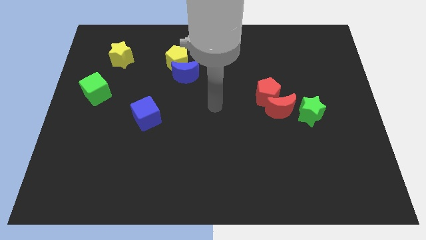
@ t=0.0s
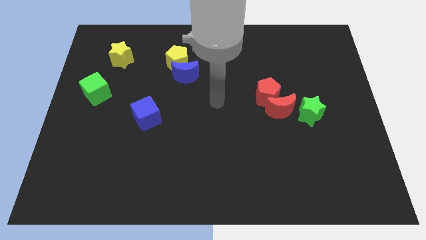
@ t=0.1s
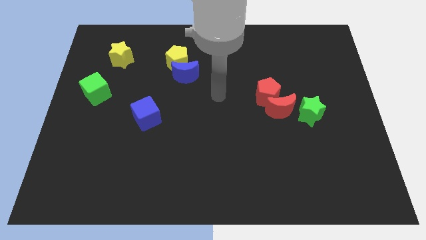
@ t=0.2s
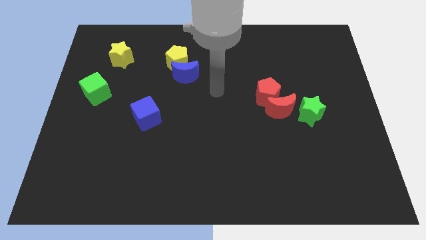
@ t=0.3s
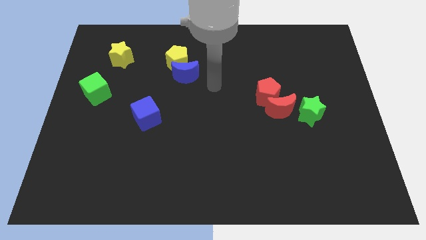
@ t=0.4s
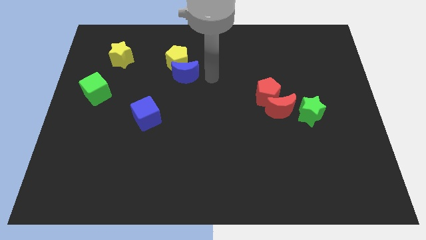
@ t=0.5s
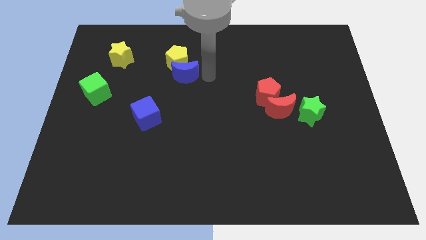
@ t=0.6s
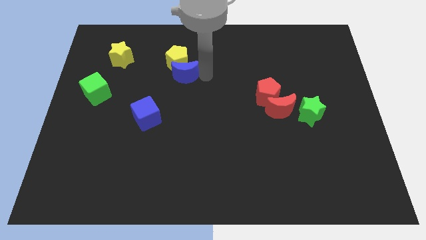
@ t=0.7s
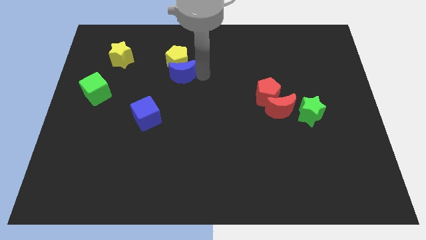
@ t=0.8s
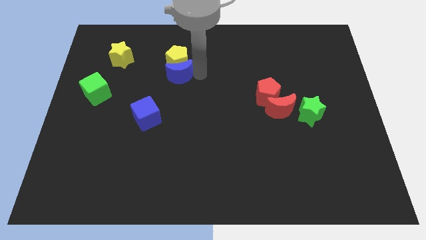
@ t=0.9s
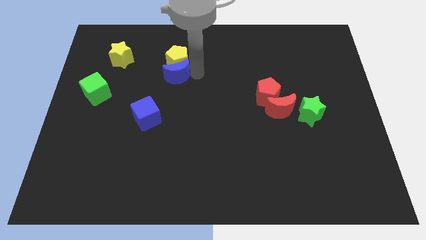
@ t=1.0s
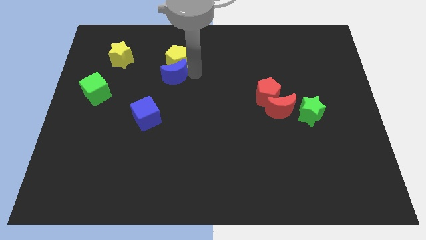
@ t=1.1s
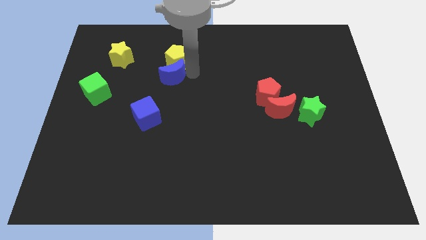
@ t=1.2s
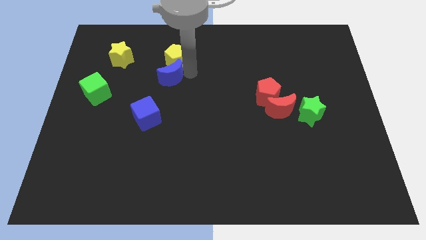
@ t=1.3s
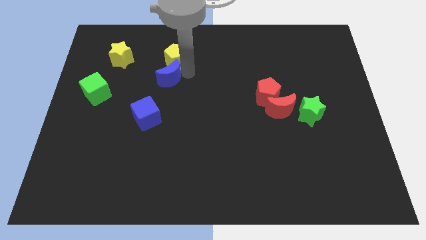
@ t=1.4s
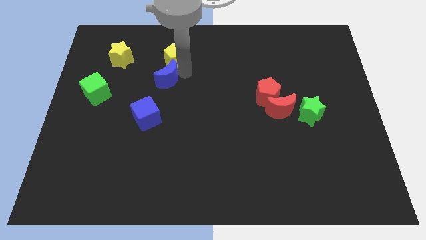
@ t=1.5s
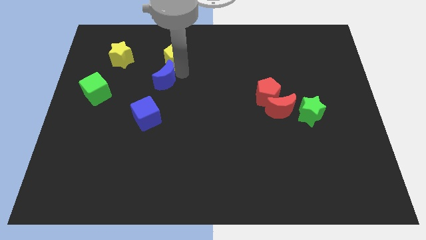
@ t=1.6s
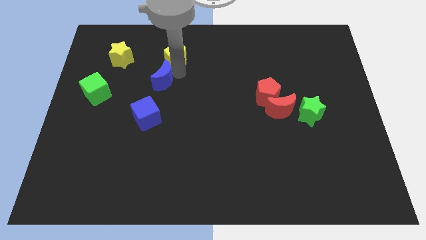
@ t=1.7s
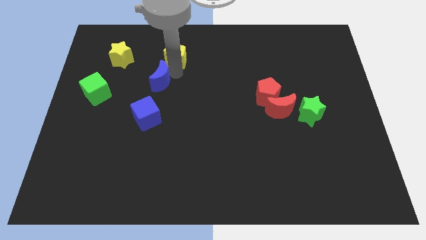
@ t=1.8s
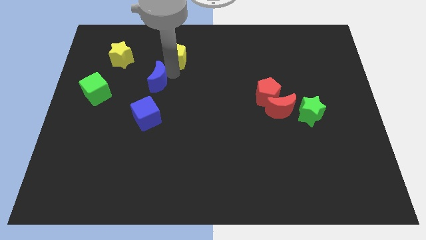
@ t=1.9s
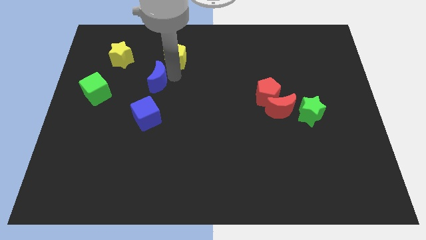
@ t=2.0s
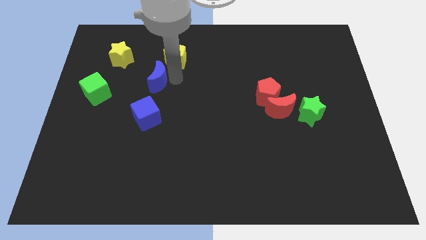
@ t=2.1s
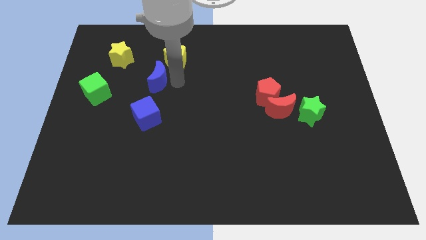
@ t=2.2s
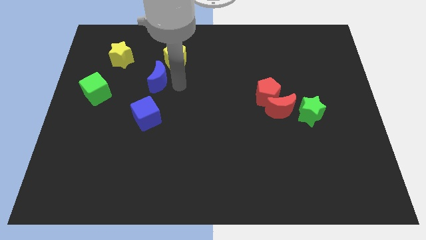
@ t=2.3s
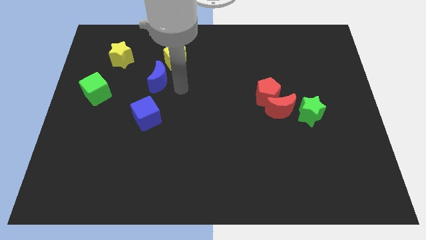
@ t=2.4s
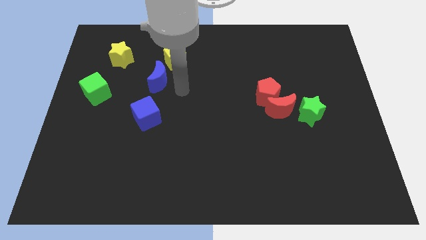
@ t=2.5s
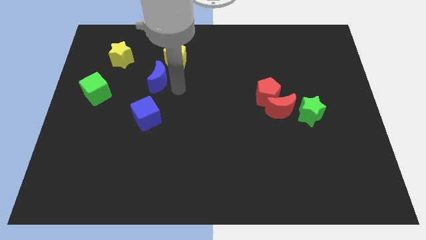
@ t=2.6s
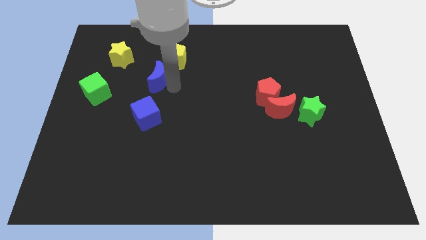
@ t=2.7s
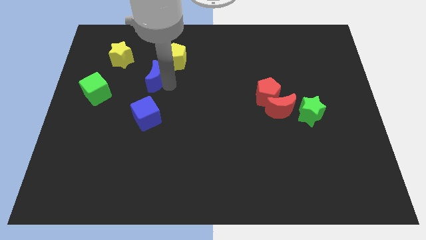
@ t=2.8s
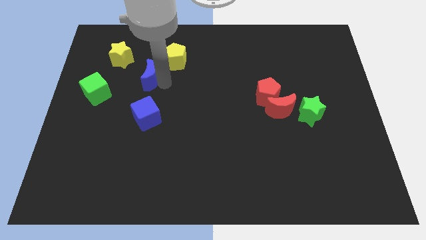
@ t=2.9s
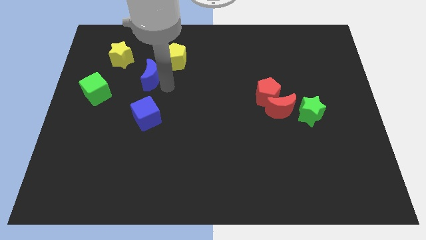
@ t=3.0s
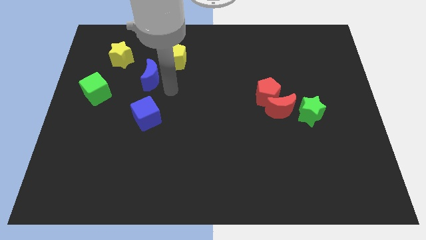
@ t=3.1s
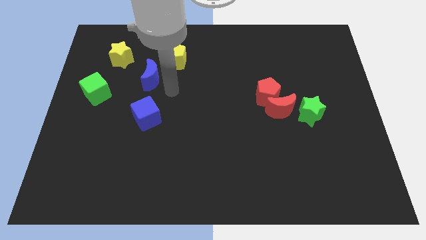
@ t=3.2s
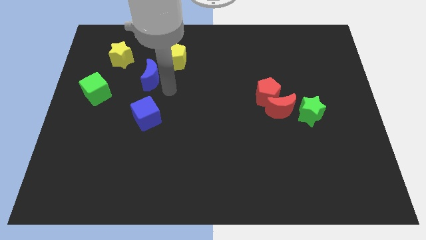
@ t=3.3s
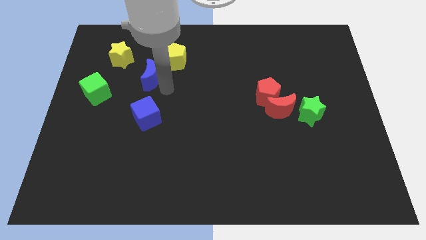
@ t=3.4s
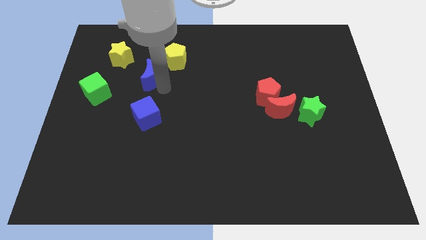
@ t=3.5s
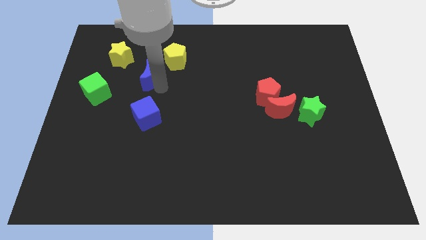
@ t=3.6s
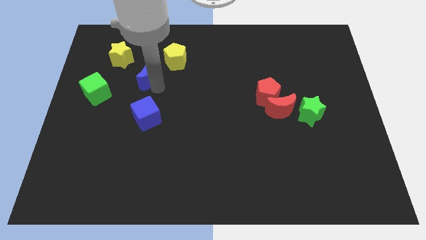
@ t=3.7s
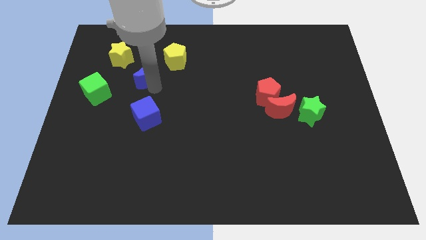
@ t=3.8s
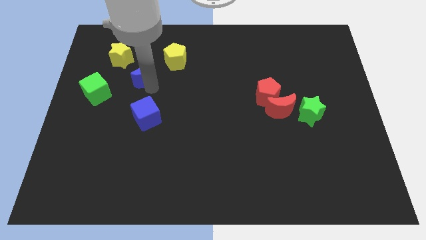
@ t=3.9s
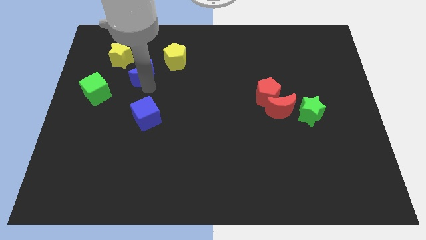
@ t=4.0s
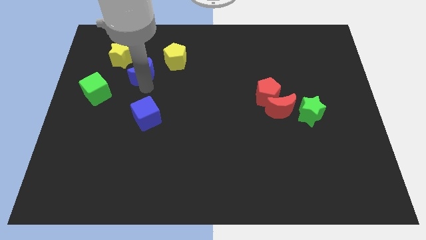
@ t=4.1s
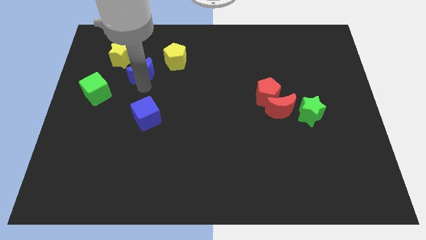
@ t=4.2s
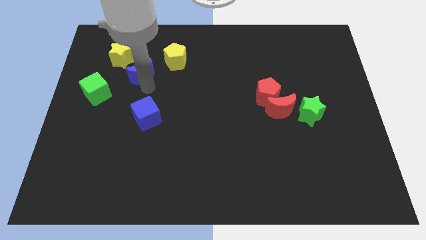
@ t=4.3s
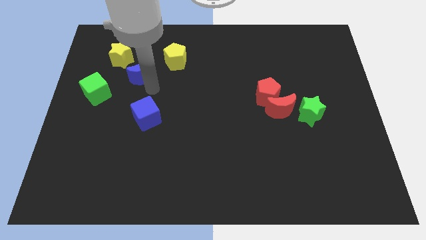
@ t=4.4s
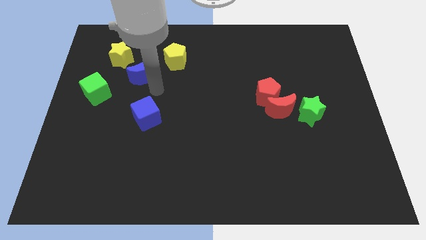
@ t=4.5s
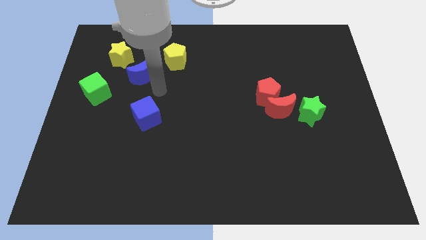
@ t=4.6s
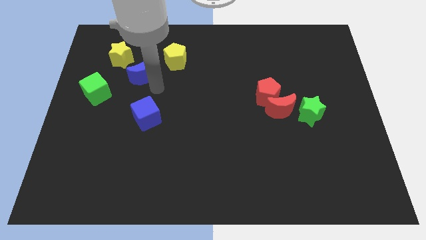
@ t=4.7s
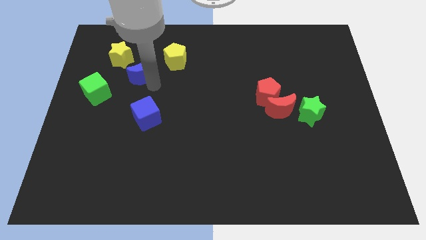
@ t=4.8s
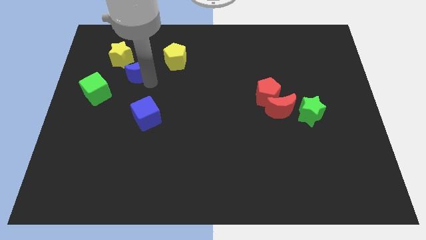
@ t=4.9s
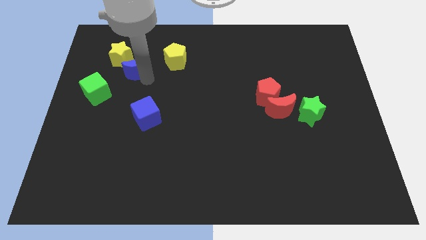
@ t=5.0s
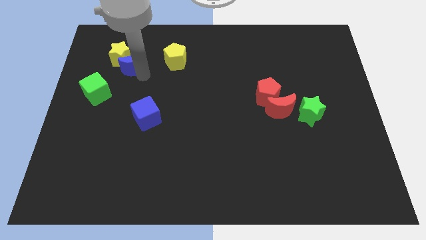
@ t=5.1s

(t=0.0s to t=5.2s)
slide the blue moon next to the yellow star

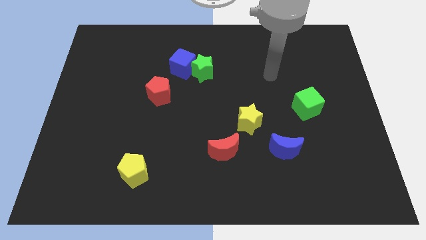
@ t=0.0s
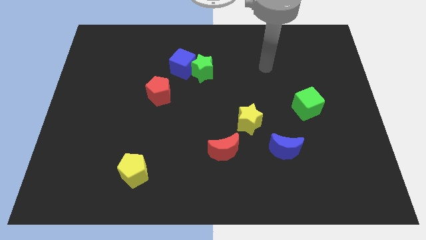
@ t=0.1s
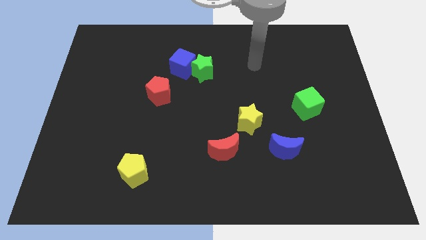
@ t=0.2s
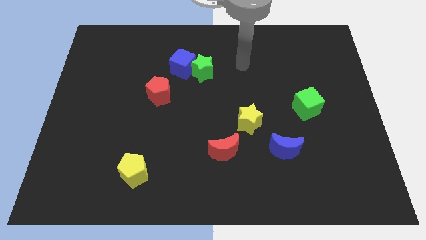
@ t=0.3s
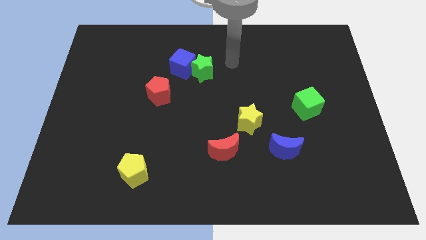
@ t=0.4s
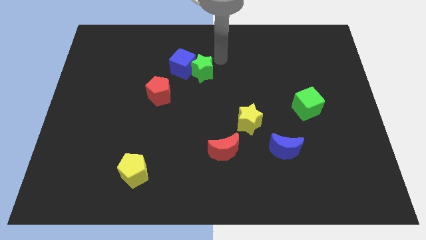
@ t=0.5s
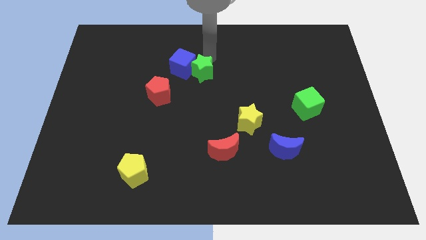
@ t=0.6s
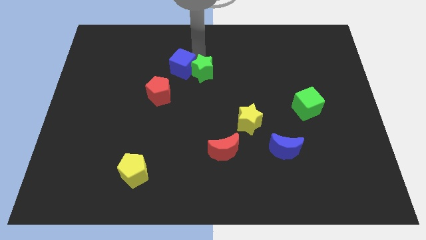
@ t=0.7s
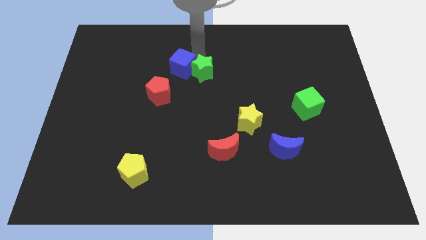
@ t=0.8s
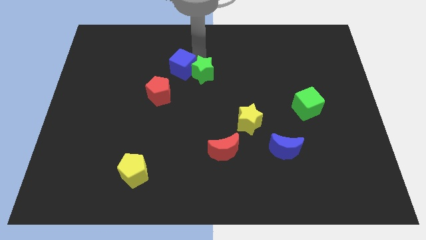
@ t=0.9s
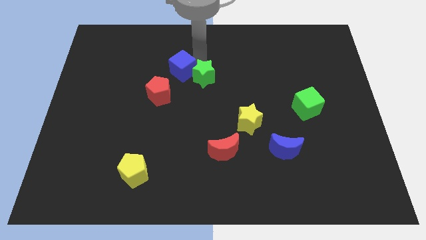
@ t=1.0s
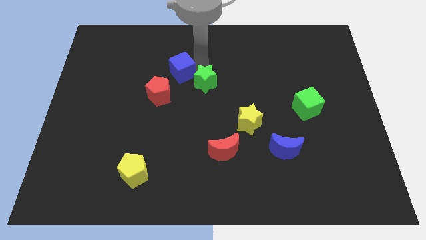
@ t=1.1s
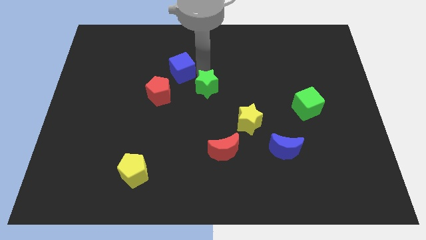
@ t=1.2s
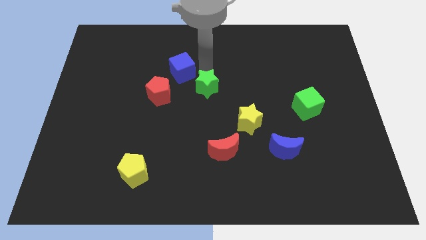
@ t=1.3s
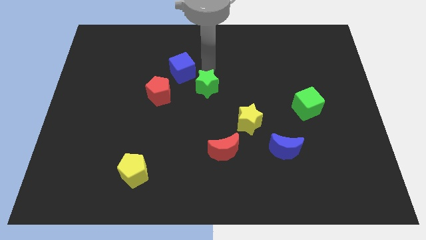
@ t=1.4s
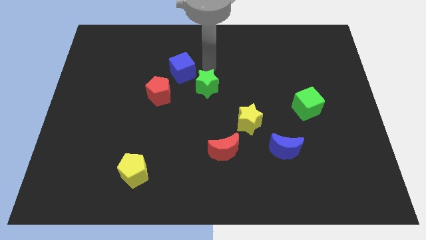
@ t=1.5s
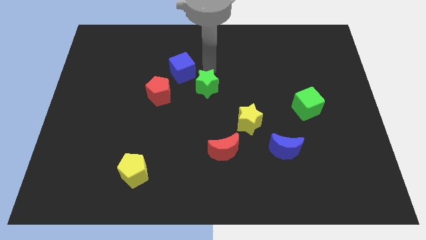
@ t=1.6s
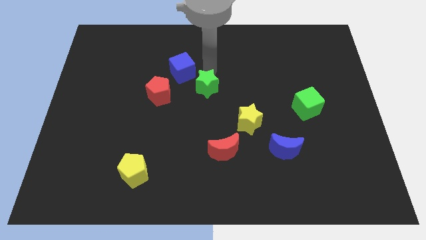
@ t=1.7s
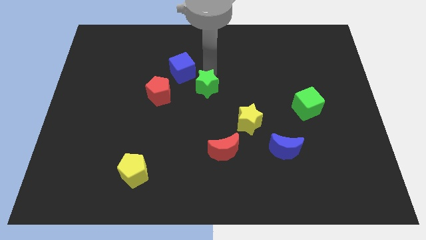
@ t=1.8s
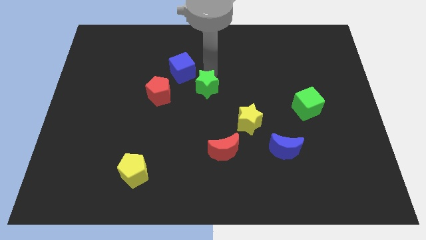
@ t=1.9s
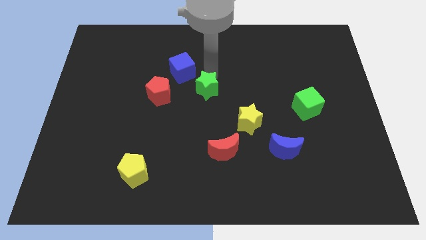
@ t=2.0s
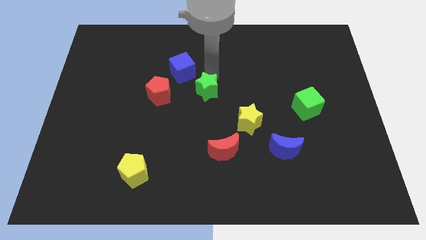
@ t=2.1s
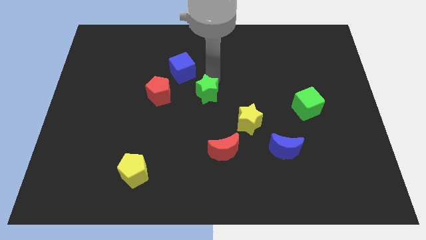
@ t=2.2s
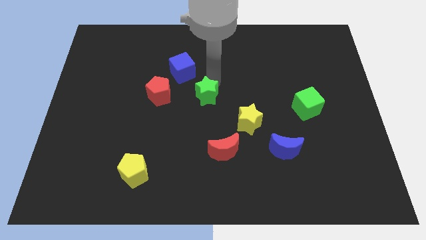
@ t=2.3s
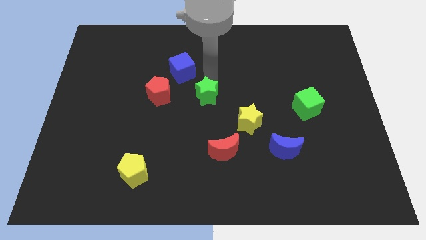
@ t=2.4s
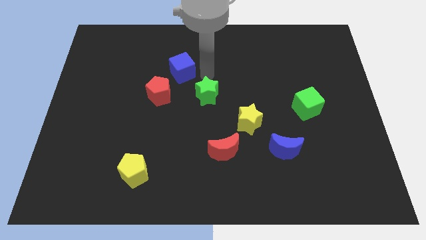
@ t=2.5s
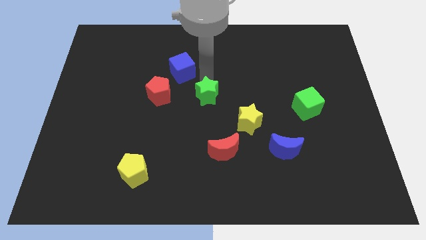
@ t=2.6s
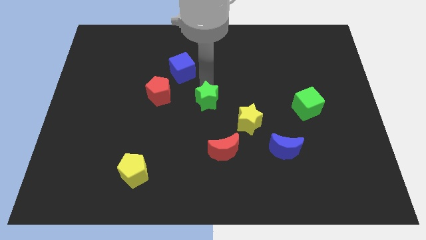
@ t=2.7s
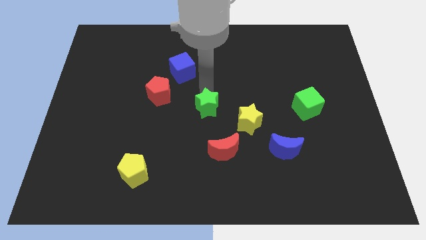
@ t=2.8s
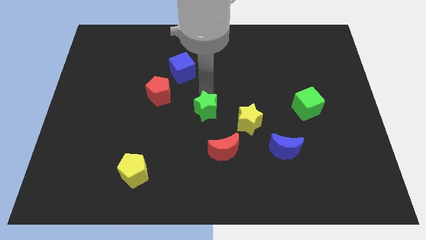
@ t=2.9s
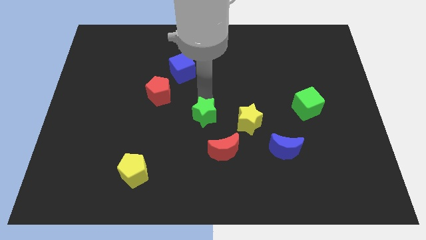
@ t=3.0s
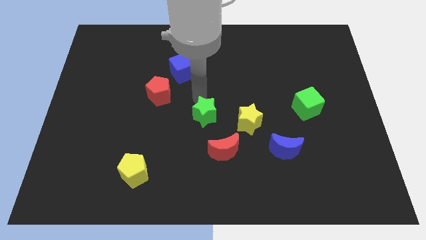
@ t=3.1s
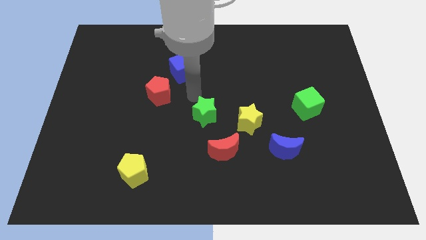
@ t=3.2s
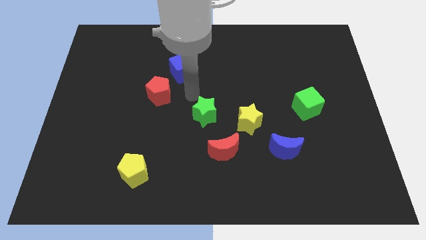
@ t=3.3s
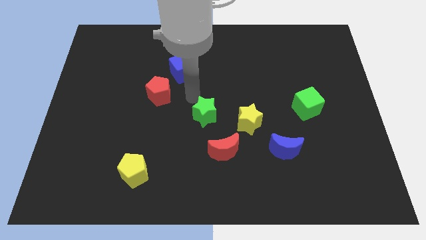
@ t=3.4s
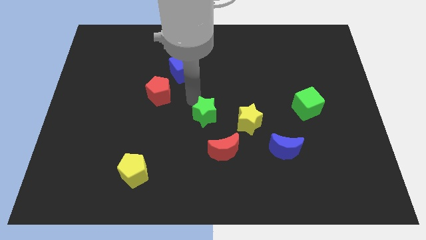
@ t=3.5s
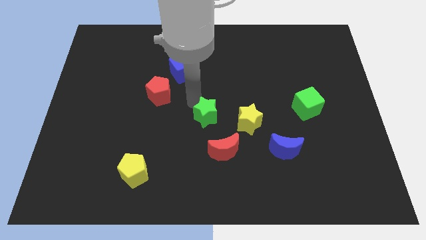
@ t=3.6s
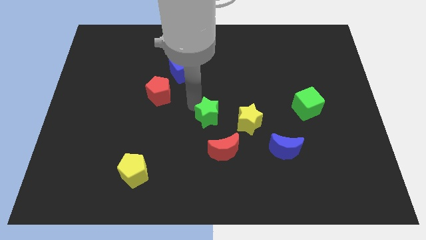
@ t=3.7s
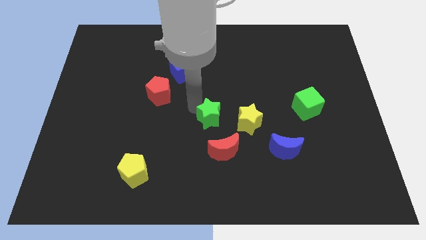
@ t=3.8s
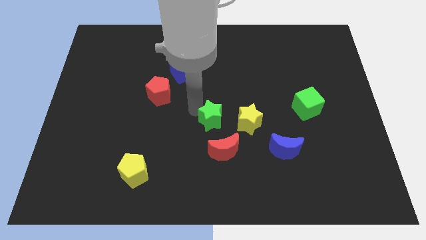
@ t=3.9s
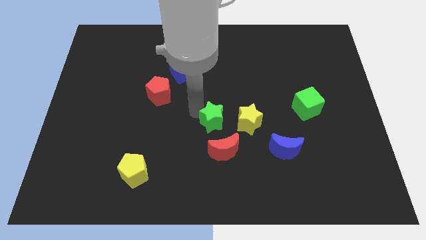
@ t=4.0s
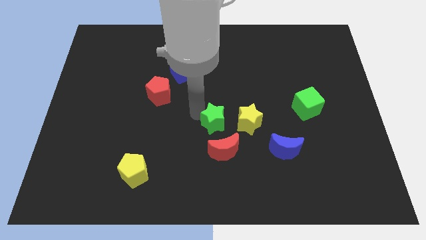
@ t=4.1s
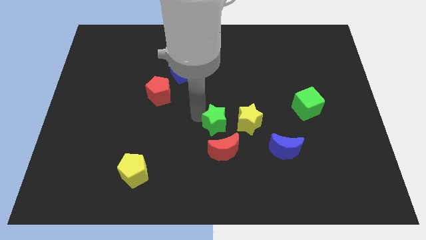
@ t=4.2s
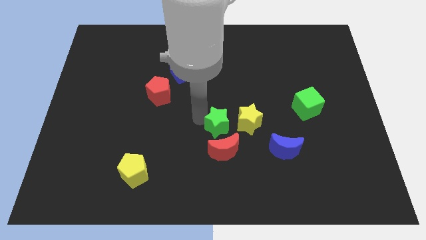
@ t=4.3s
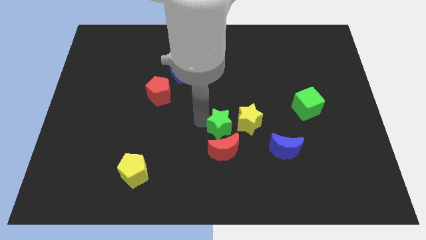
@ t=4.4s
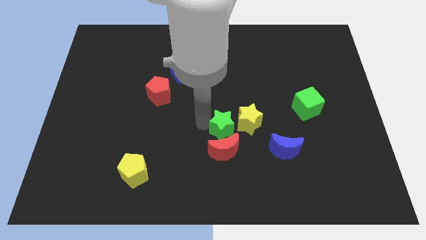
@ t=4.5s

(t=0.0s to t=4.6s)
slide the green star next to the red moon
